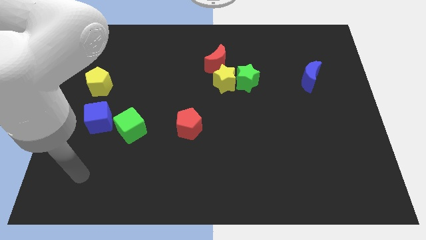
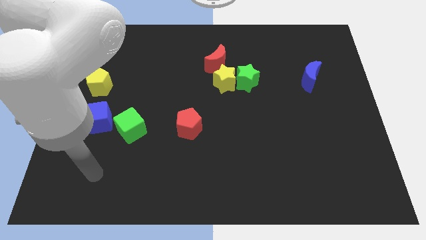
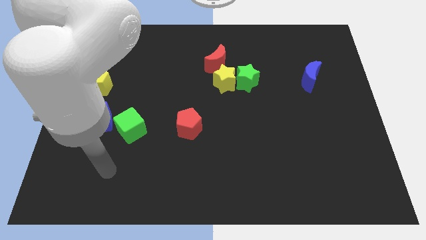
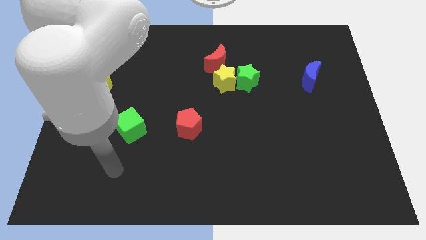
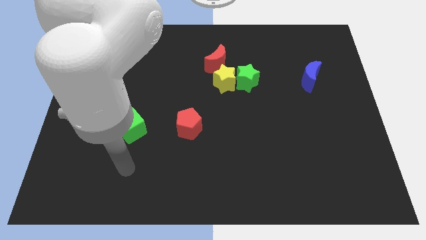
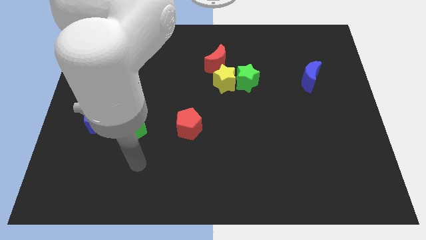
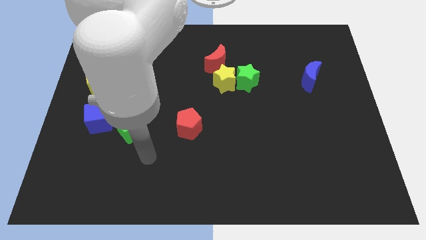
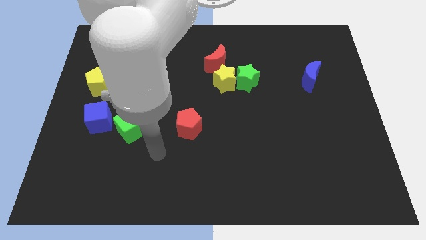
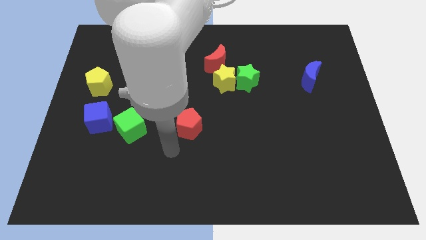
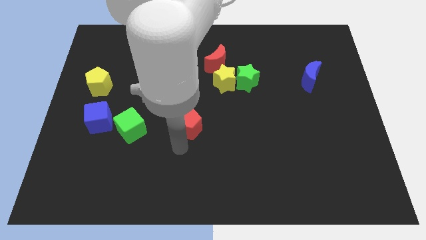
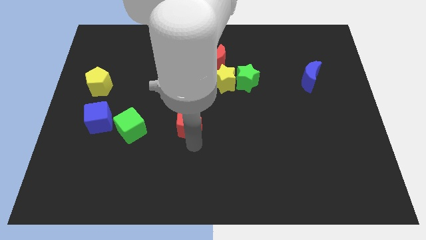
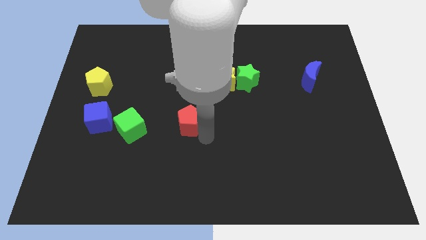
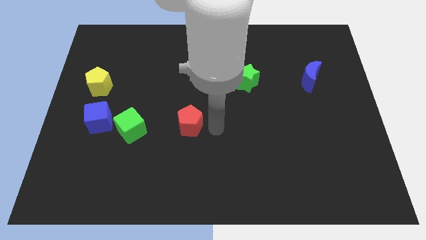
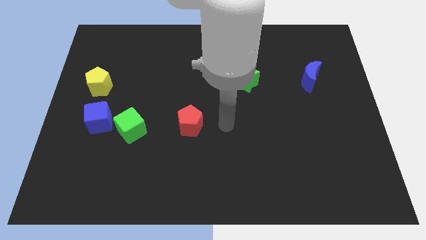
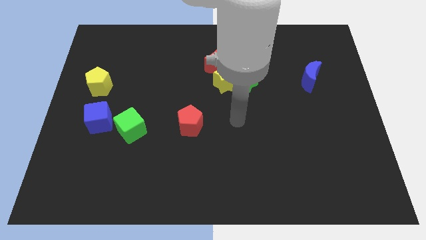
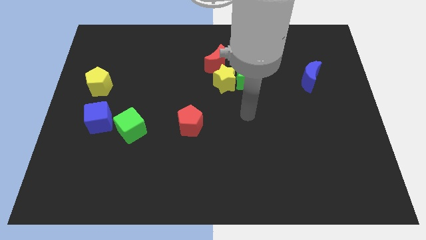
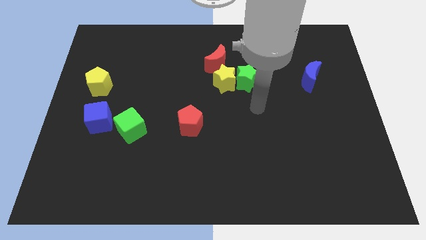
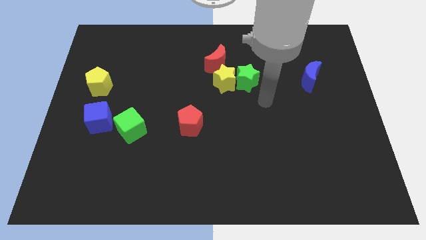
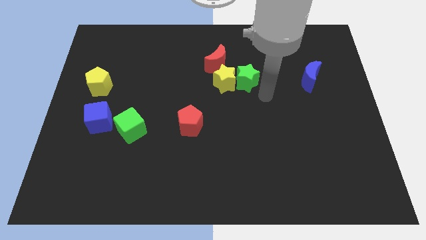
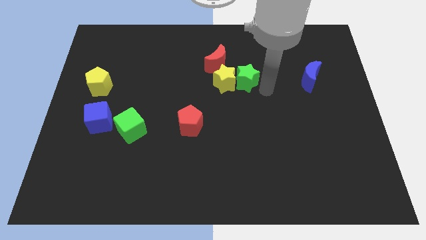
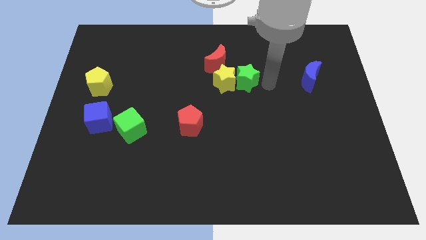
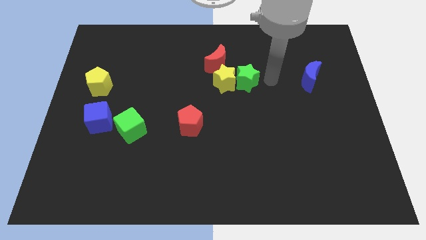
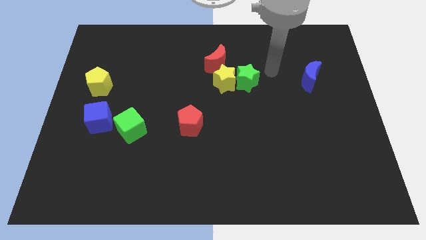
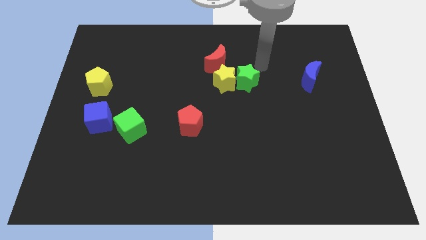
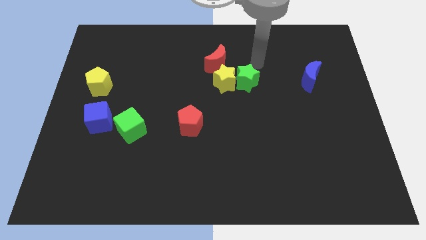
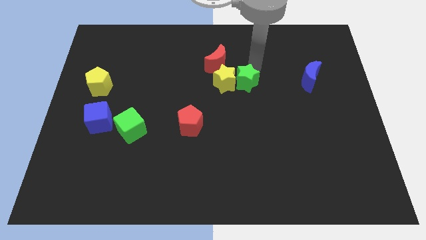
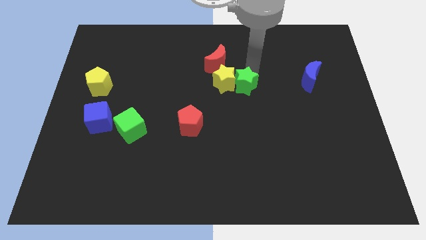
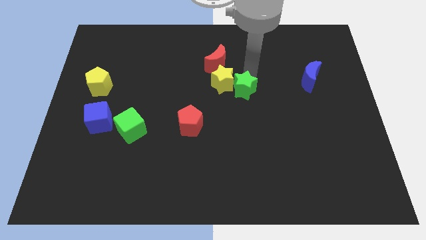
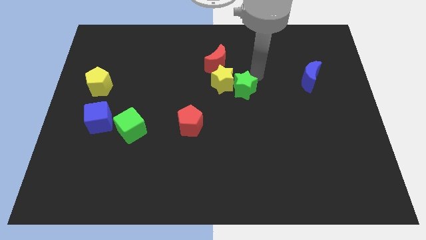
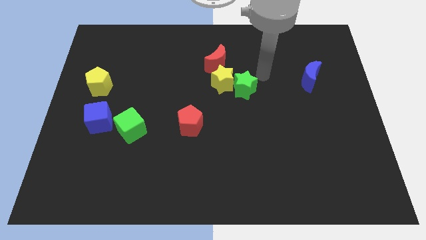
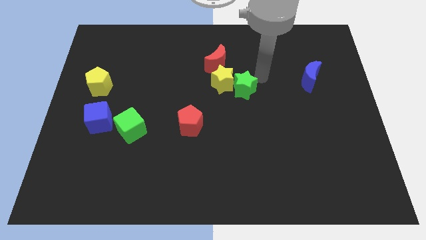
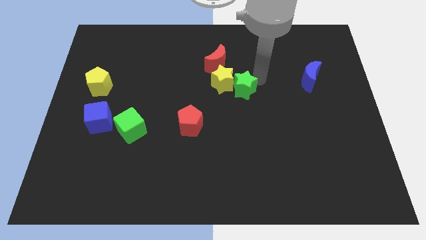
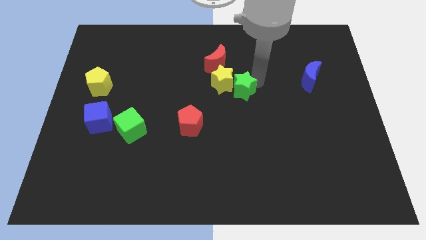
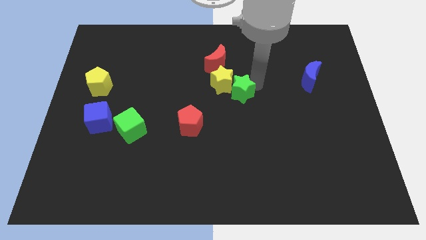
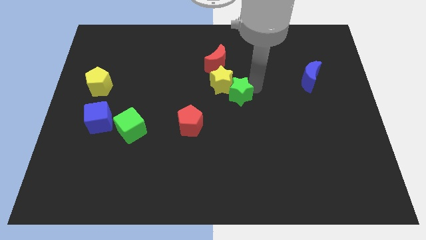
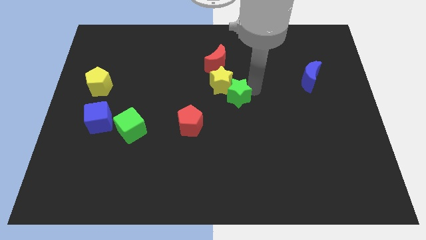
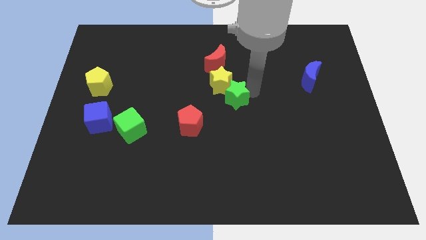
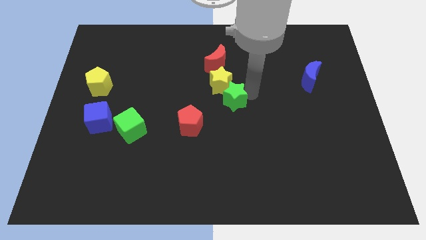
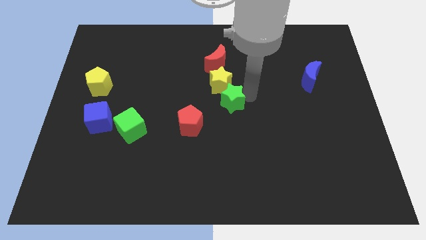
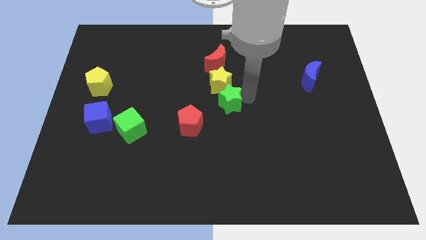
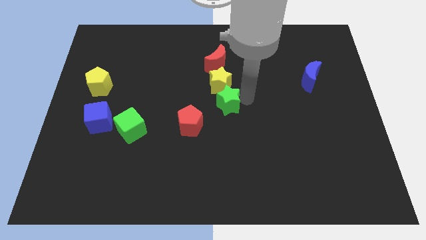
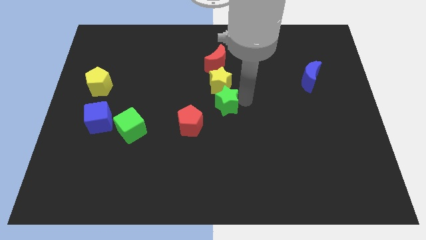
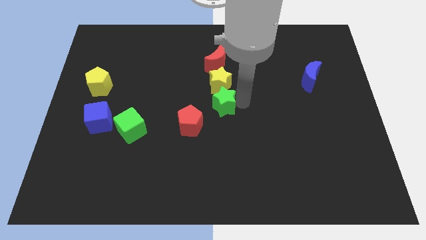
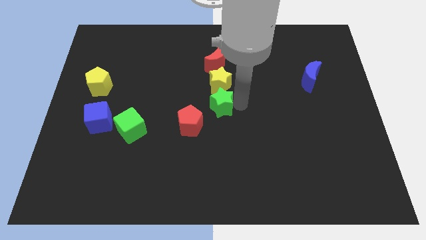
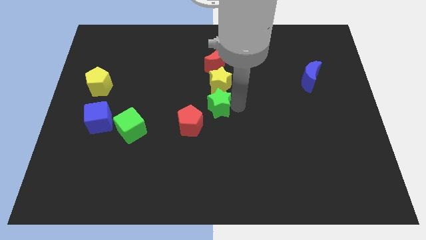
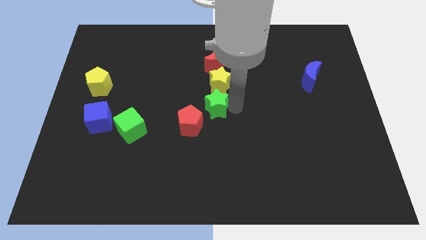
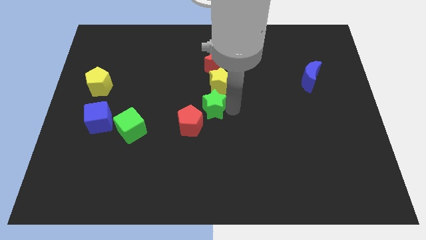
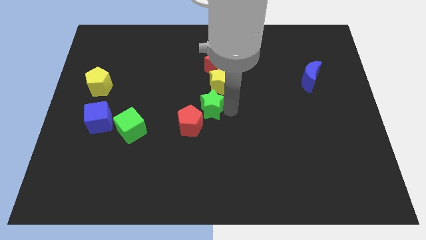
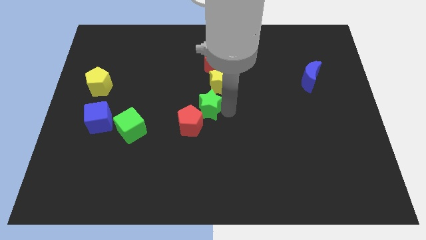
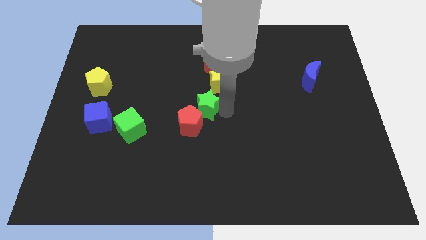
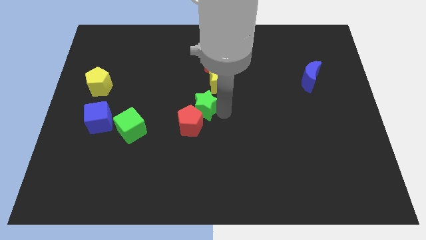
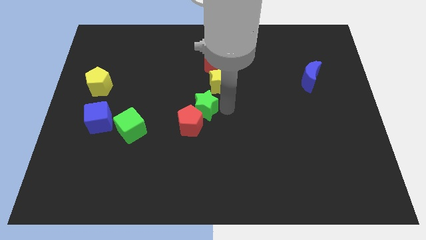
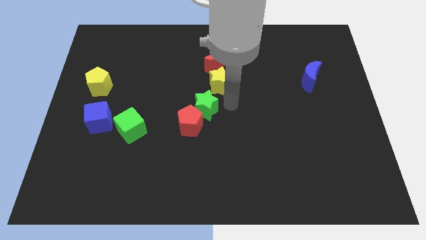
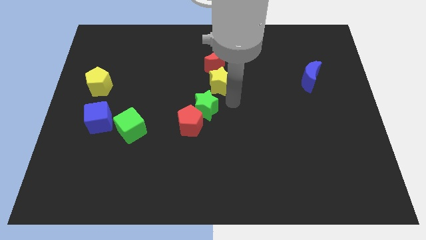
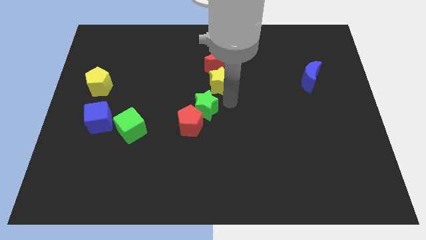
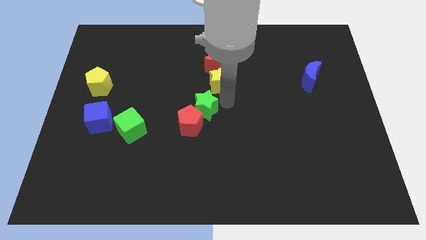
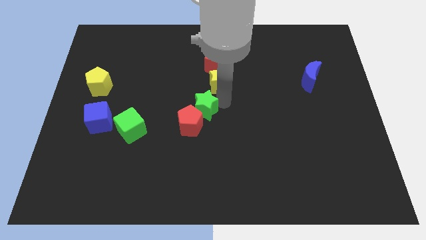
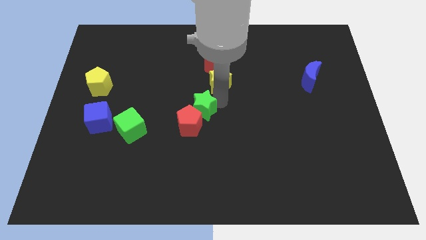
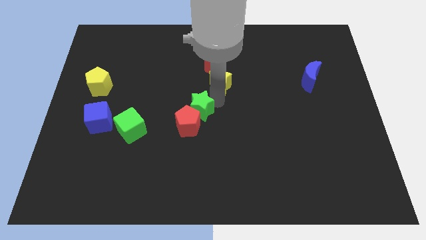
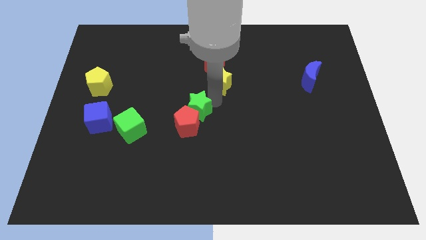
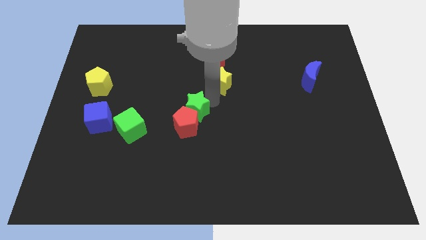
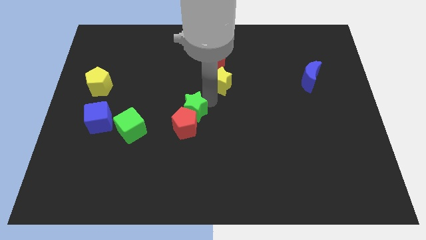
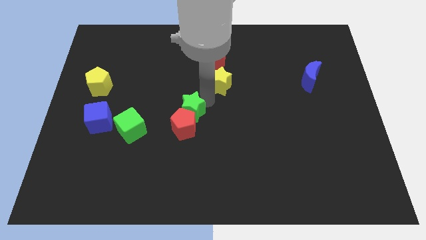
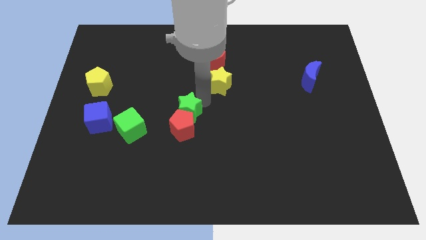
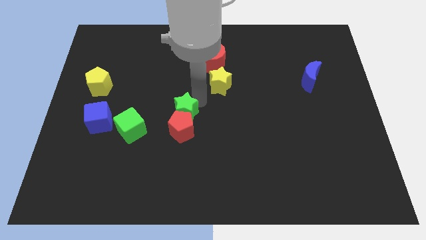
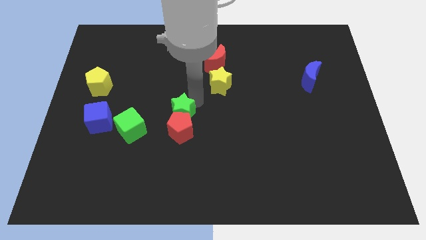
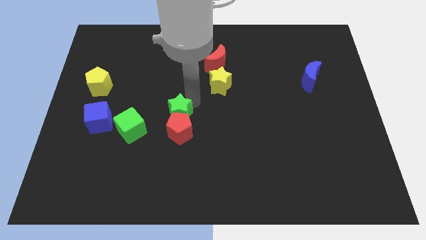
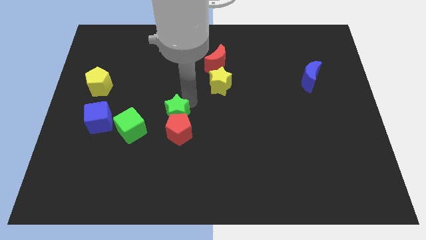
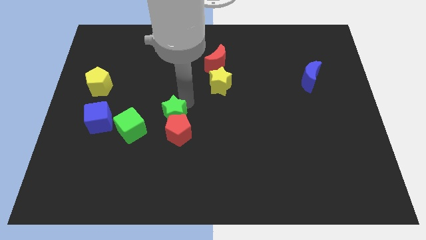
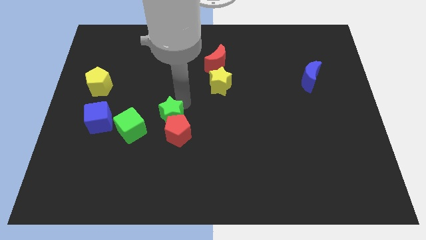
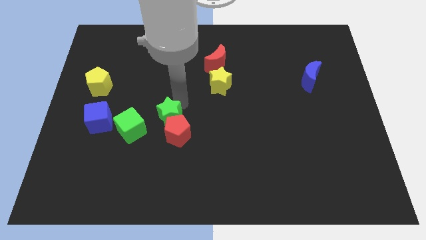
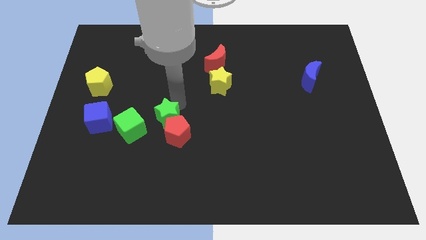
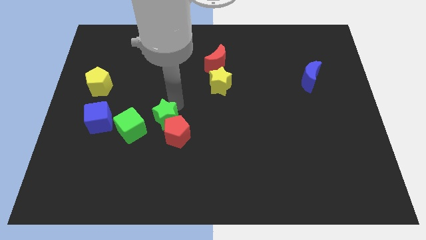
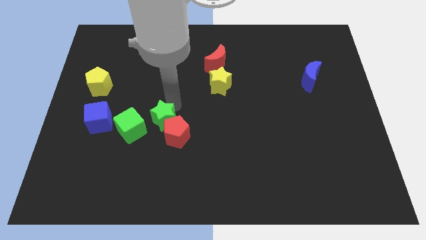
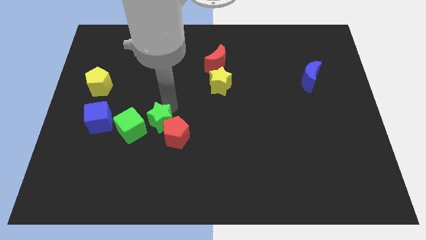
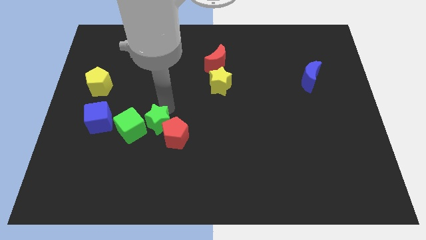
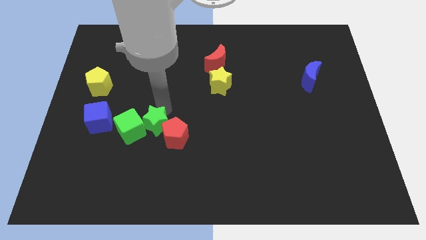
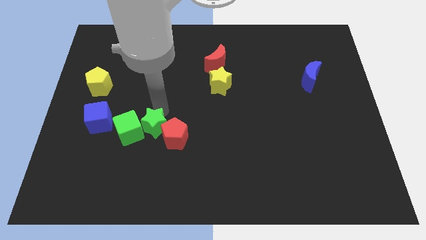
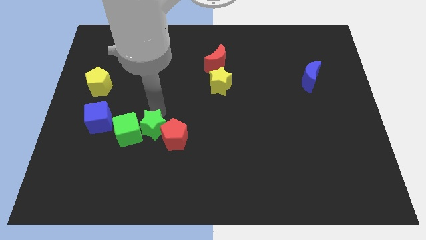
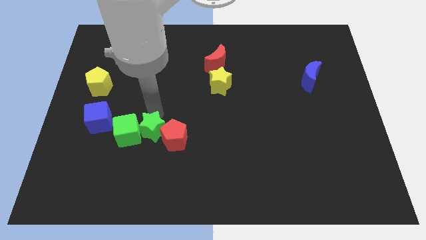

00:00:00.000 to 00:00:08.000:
put the green star to the bottom right of the green cube
